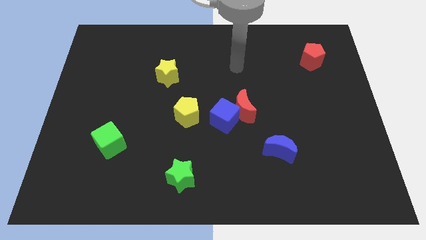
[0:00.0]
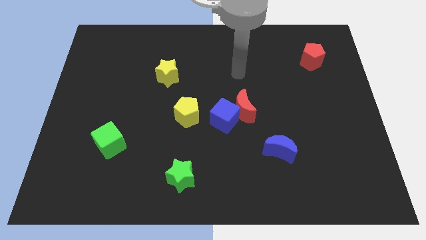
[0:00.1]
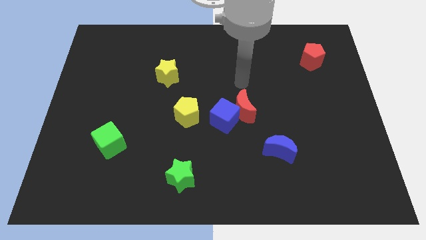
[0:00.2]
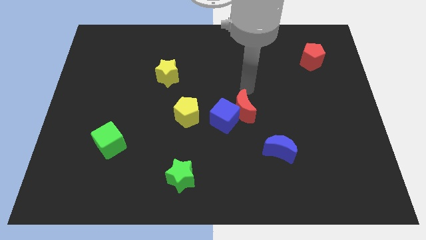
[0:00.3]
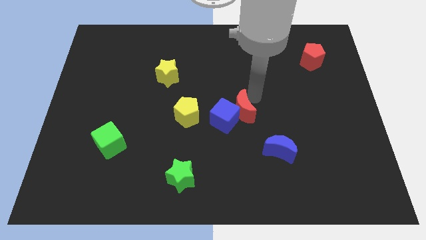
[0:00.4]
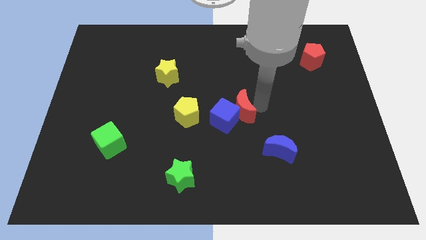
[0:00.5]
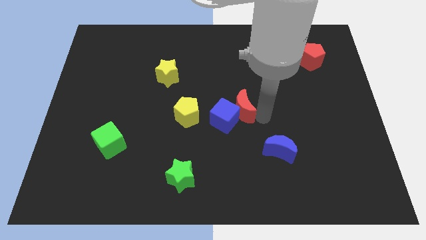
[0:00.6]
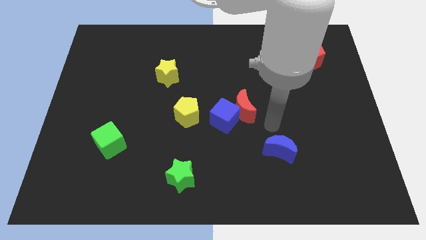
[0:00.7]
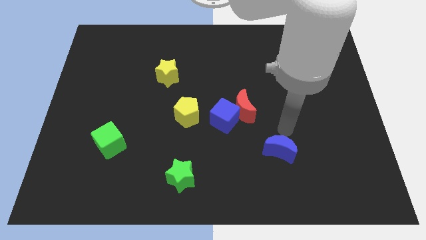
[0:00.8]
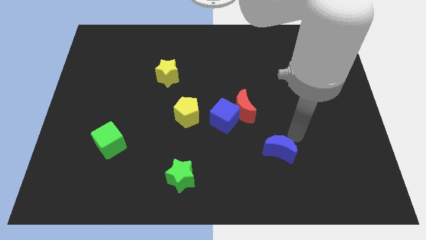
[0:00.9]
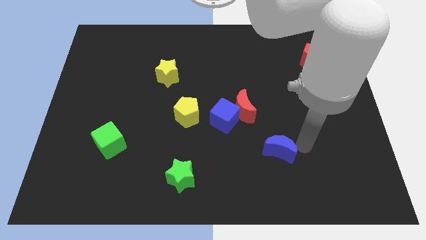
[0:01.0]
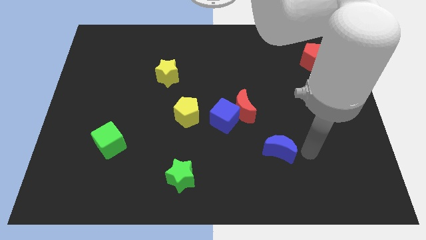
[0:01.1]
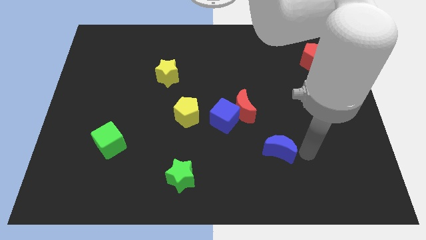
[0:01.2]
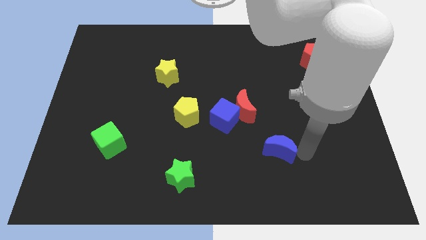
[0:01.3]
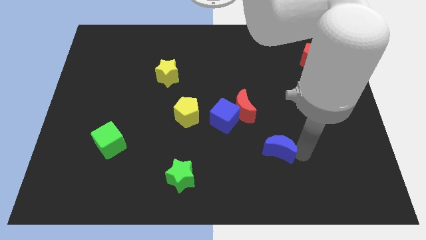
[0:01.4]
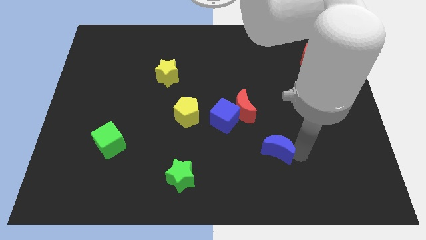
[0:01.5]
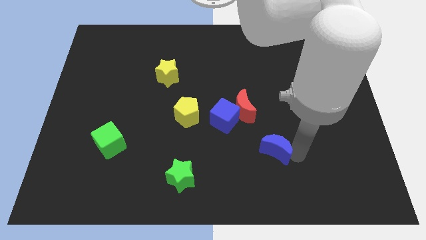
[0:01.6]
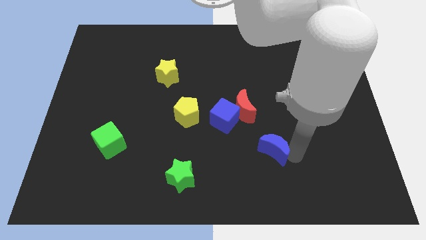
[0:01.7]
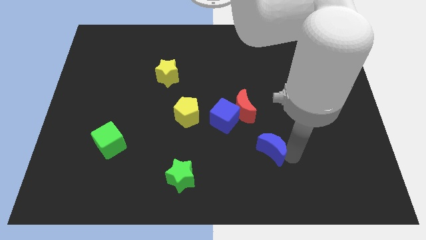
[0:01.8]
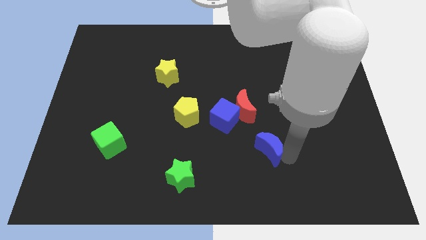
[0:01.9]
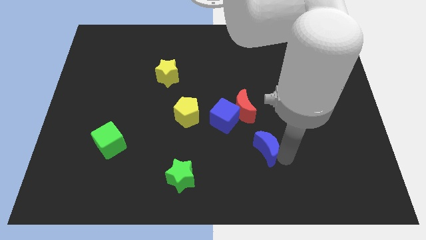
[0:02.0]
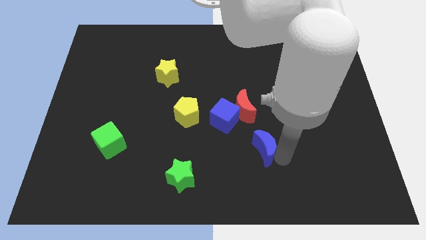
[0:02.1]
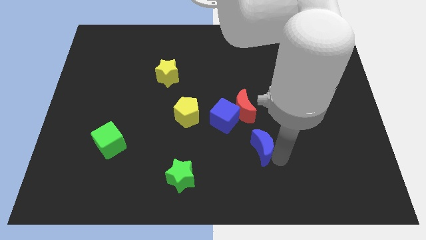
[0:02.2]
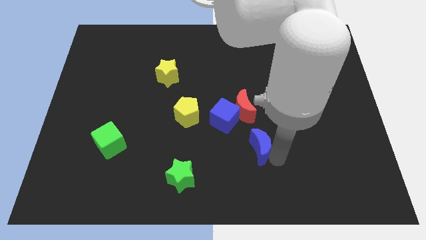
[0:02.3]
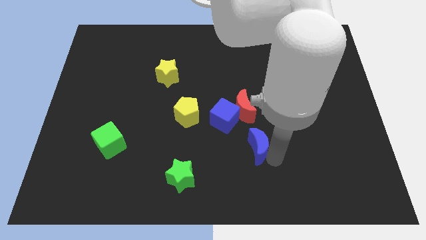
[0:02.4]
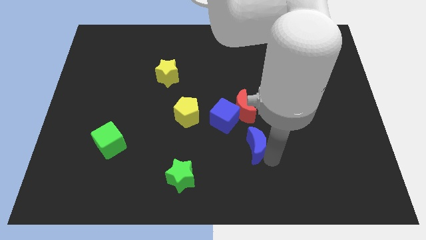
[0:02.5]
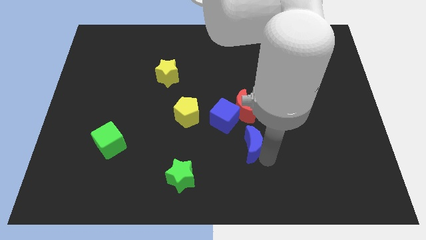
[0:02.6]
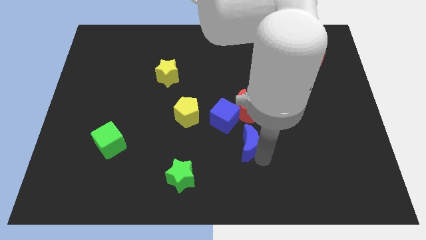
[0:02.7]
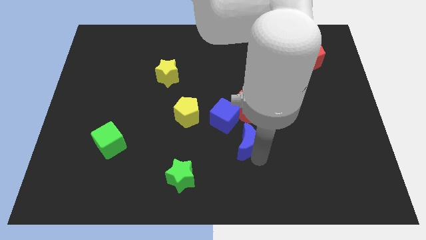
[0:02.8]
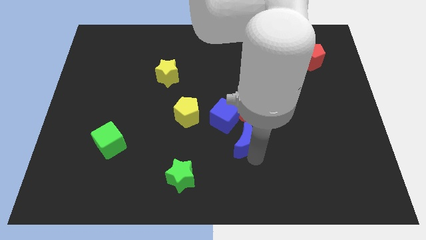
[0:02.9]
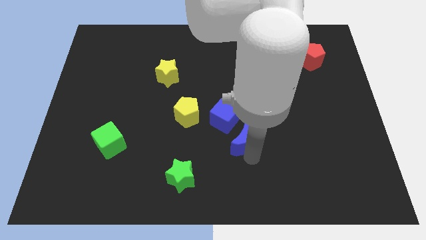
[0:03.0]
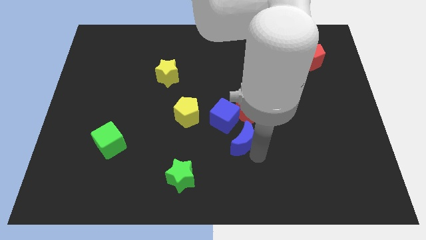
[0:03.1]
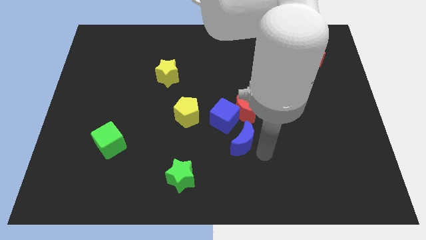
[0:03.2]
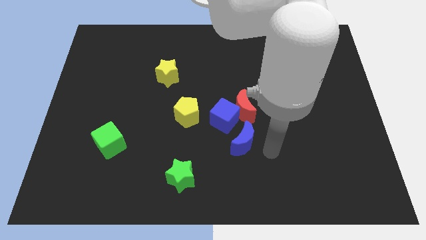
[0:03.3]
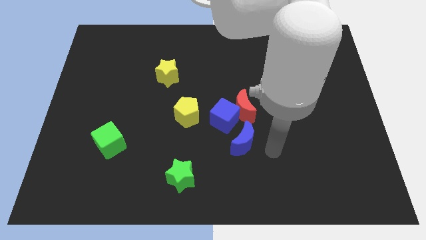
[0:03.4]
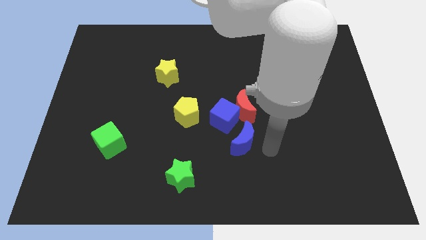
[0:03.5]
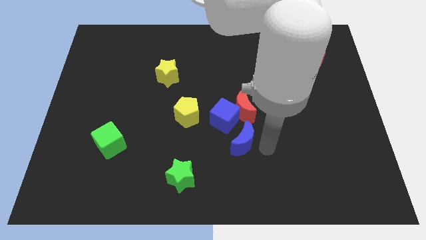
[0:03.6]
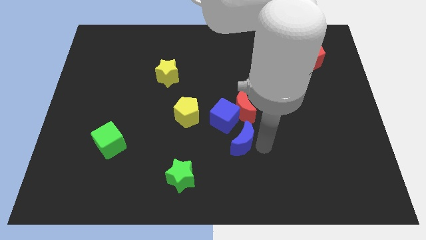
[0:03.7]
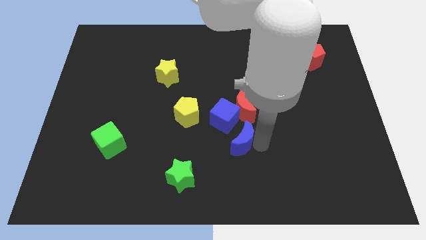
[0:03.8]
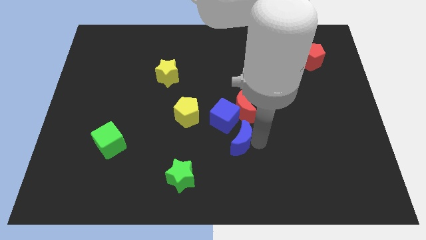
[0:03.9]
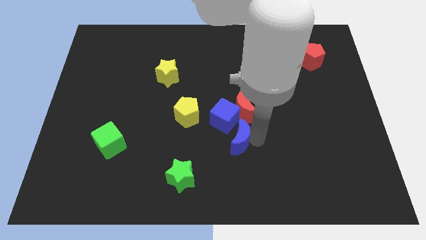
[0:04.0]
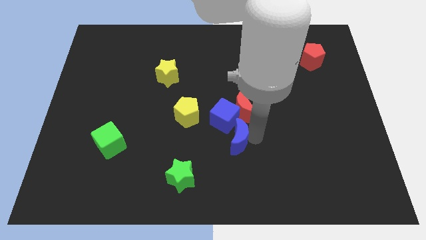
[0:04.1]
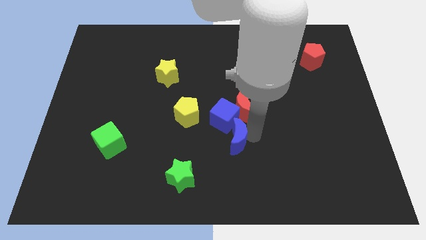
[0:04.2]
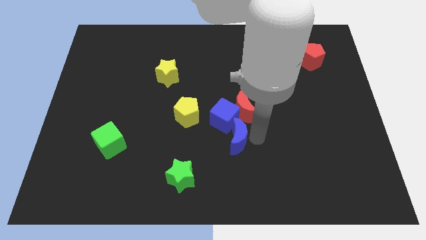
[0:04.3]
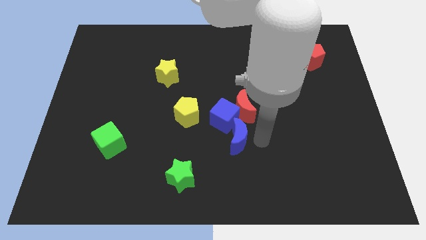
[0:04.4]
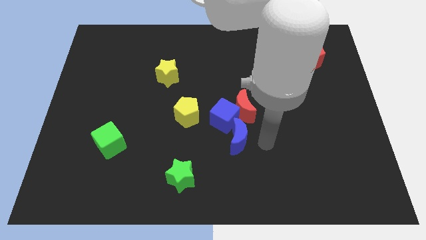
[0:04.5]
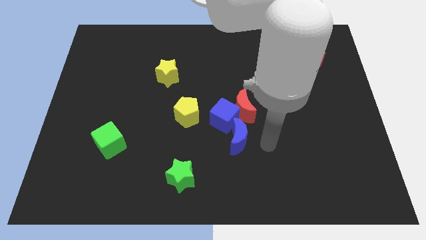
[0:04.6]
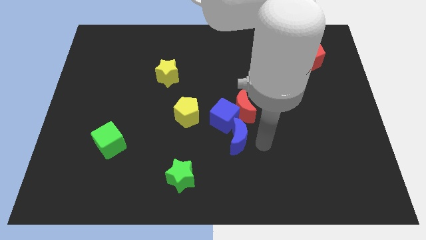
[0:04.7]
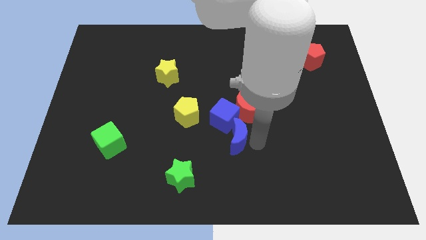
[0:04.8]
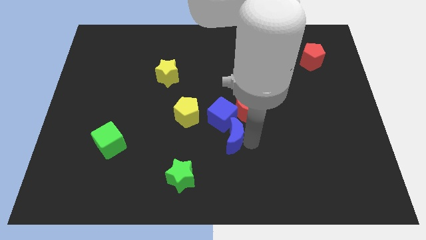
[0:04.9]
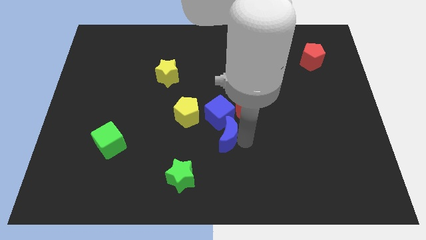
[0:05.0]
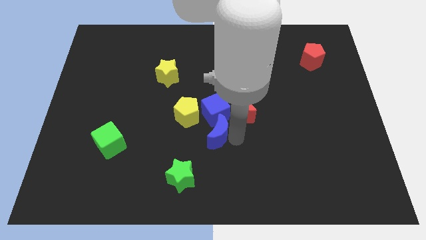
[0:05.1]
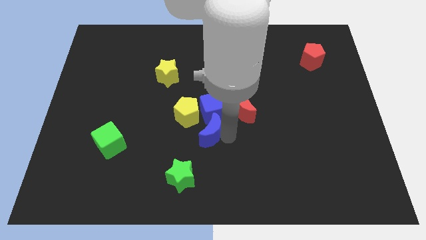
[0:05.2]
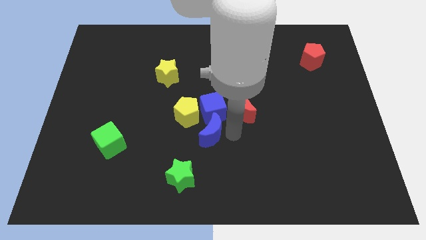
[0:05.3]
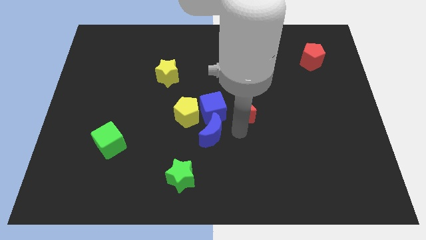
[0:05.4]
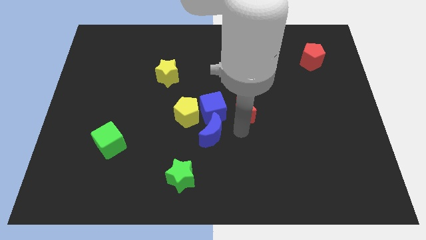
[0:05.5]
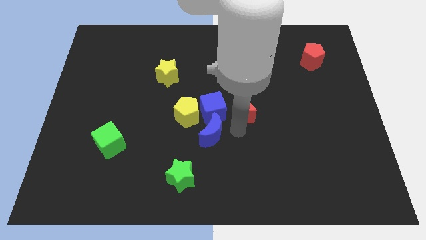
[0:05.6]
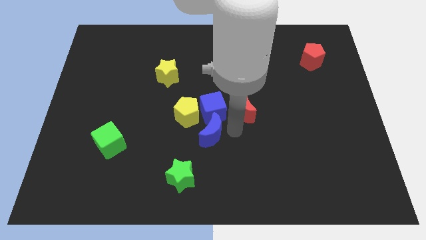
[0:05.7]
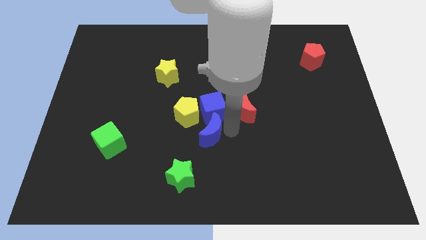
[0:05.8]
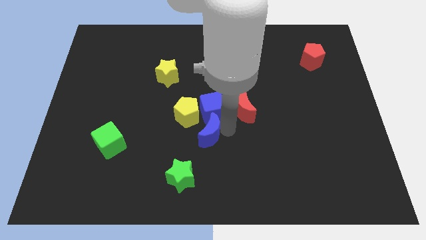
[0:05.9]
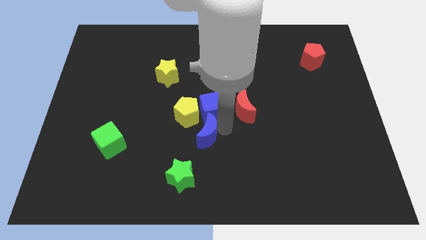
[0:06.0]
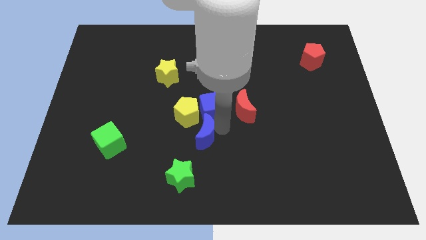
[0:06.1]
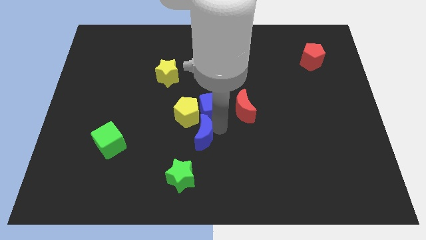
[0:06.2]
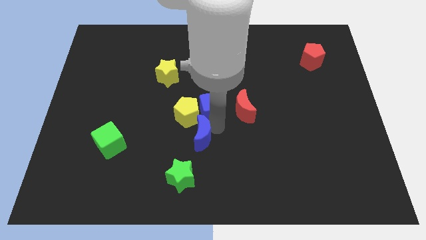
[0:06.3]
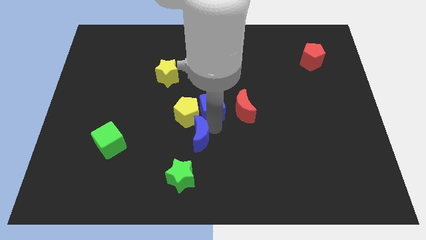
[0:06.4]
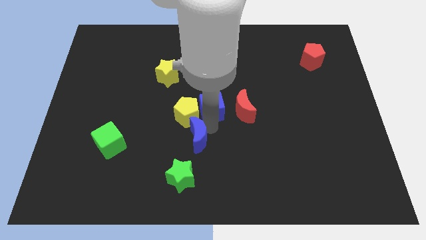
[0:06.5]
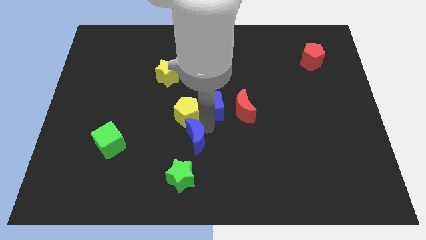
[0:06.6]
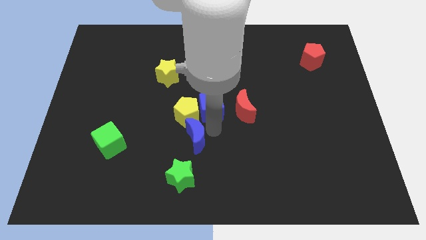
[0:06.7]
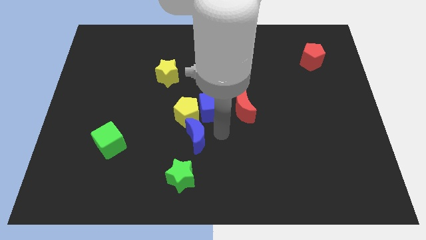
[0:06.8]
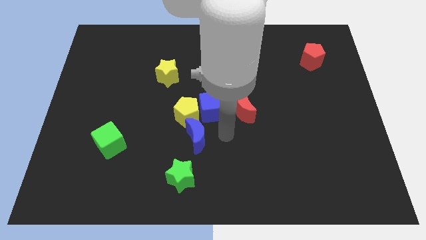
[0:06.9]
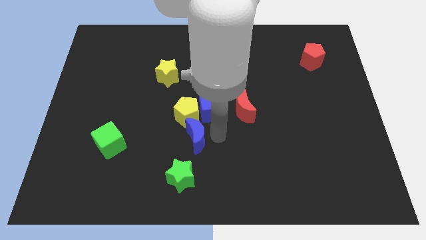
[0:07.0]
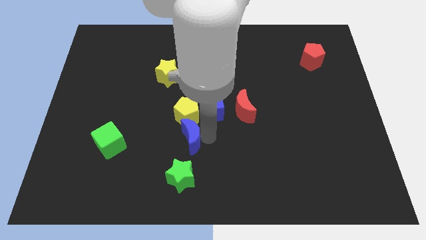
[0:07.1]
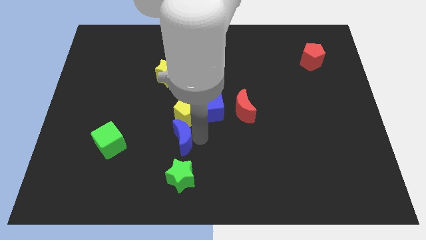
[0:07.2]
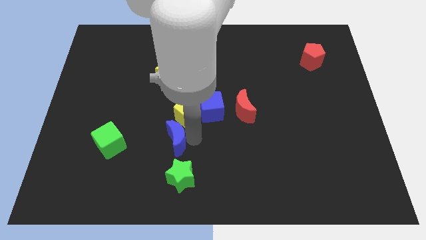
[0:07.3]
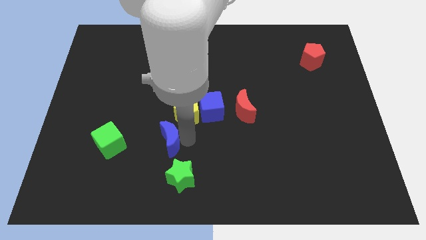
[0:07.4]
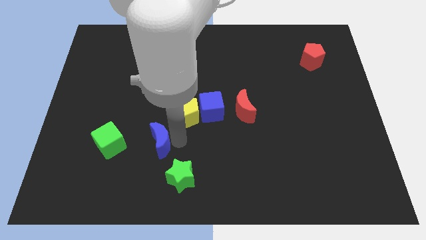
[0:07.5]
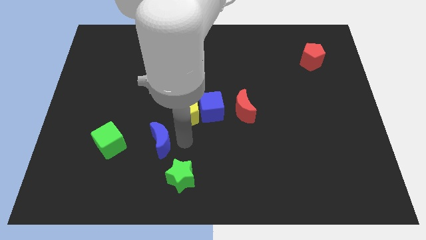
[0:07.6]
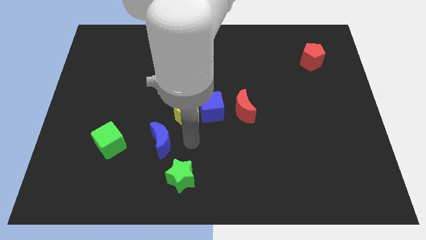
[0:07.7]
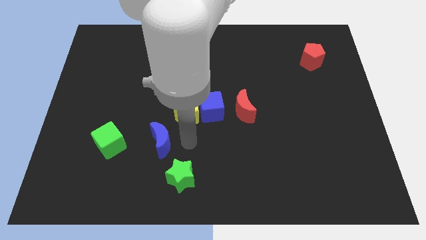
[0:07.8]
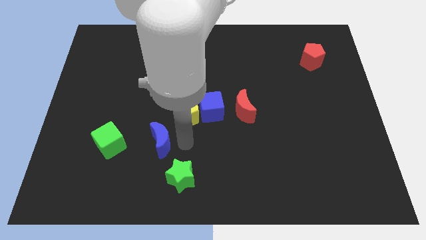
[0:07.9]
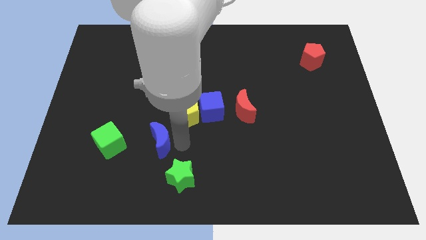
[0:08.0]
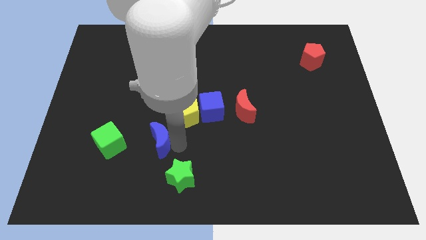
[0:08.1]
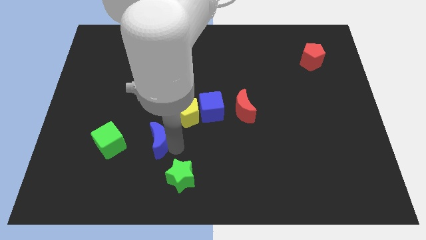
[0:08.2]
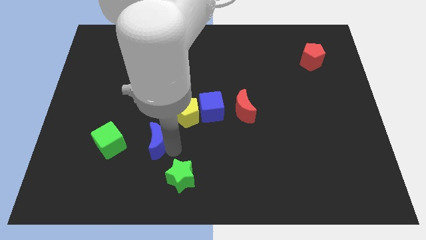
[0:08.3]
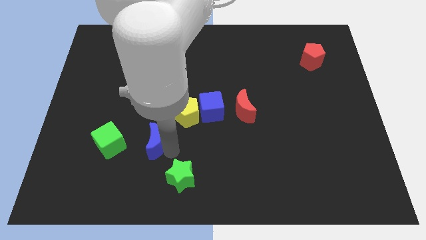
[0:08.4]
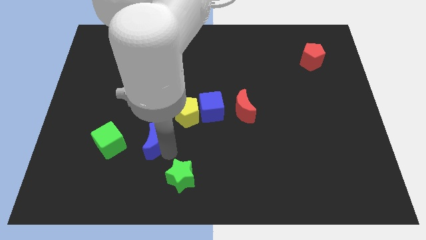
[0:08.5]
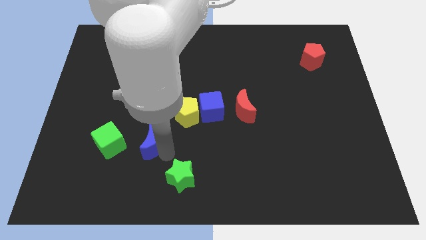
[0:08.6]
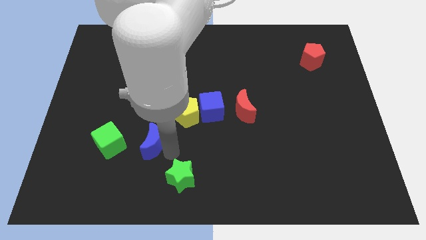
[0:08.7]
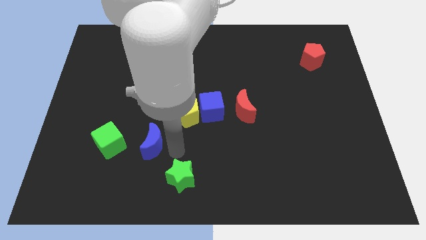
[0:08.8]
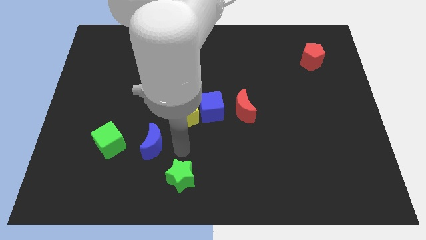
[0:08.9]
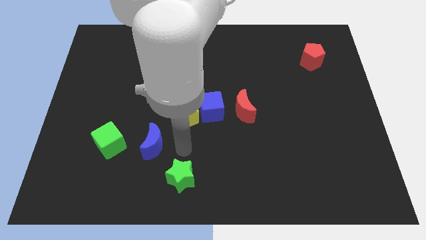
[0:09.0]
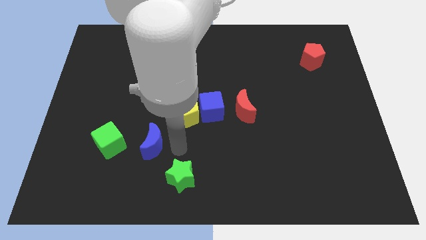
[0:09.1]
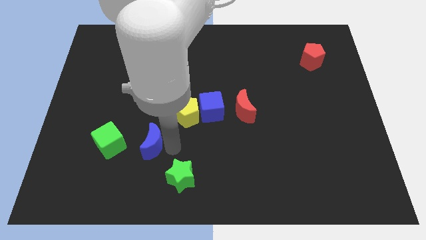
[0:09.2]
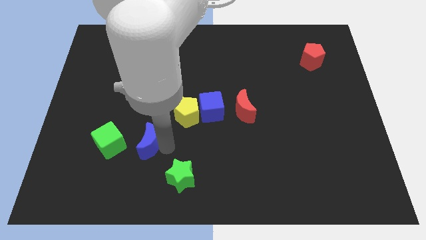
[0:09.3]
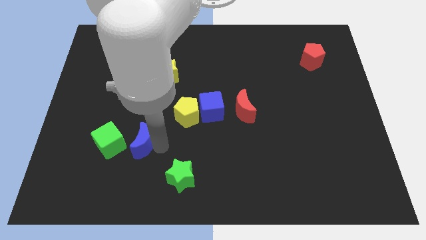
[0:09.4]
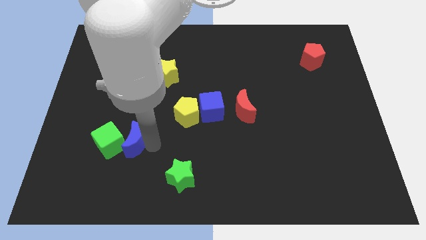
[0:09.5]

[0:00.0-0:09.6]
move the blue moon next to the green cube
